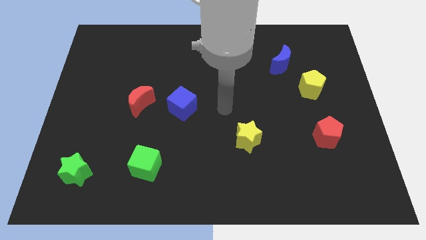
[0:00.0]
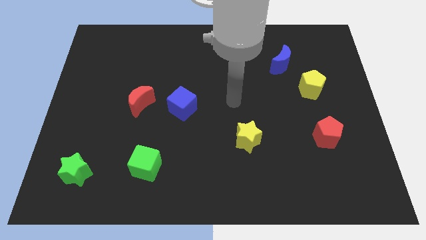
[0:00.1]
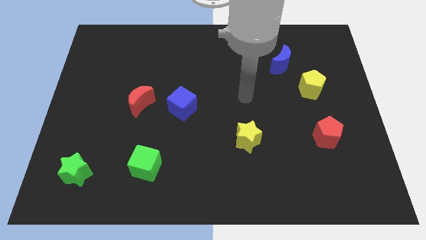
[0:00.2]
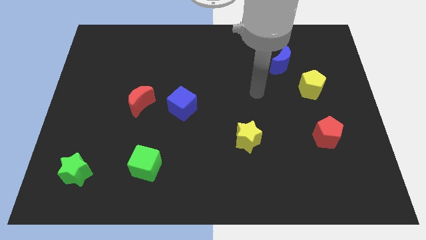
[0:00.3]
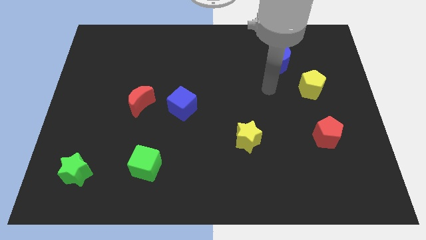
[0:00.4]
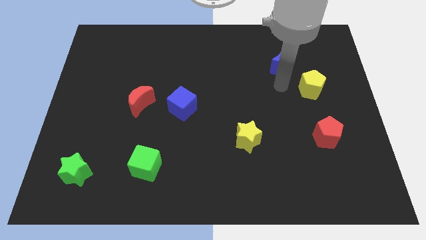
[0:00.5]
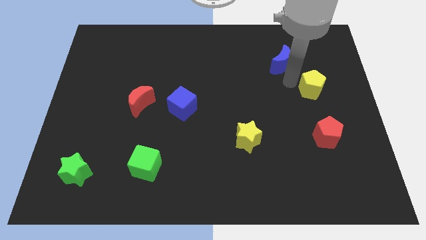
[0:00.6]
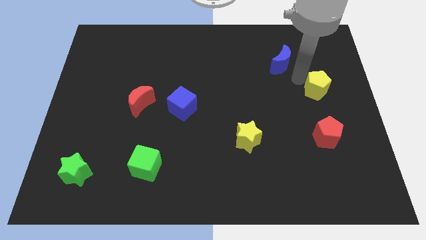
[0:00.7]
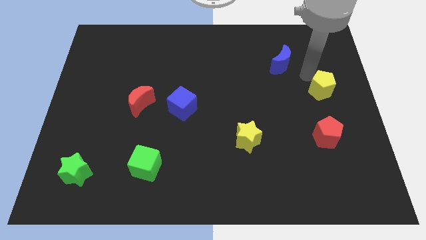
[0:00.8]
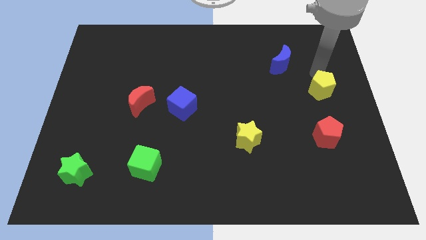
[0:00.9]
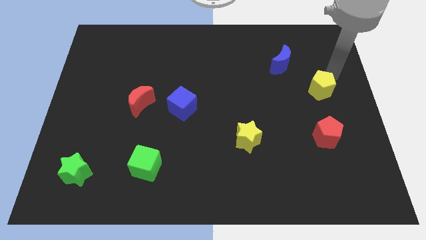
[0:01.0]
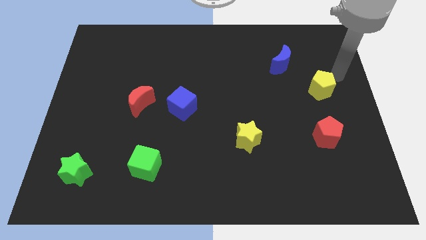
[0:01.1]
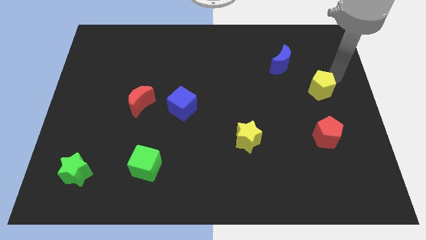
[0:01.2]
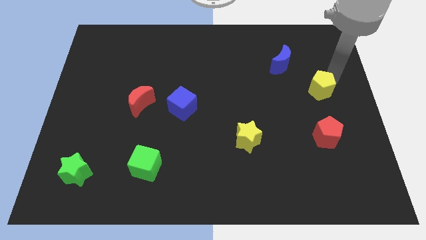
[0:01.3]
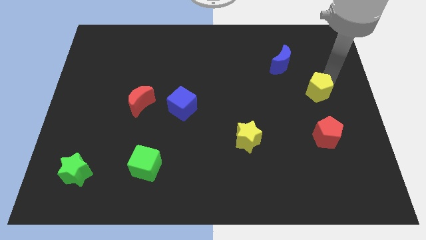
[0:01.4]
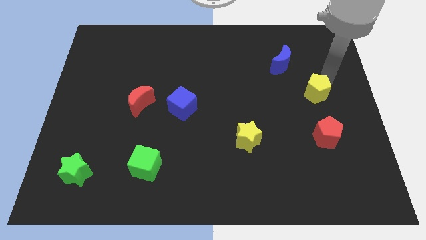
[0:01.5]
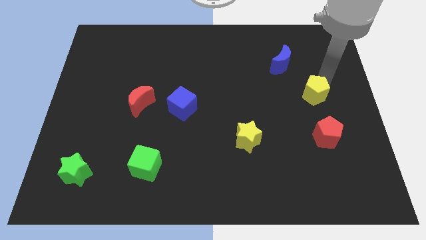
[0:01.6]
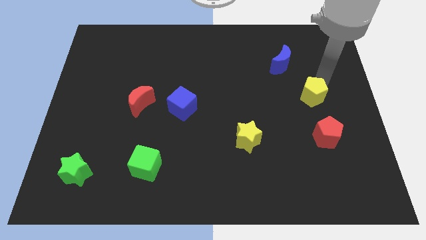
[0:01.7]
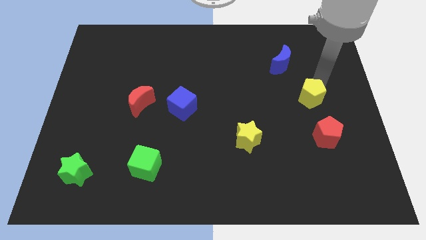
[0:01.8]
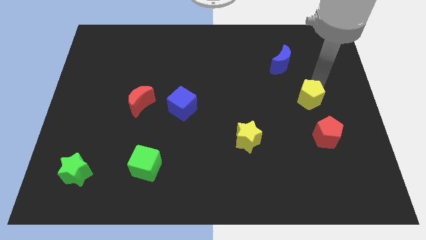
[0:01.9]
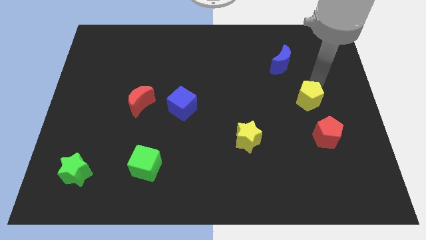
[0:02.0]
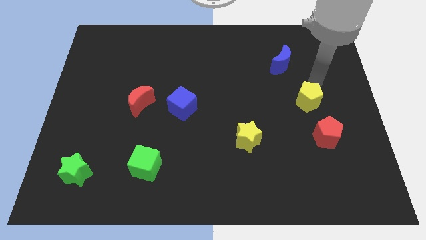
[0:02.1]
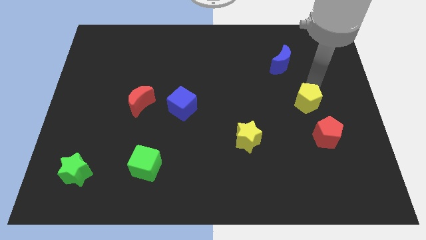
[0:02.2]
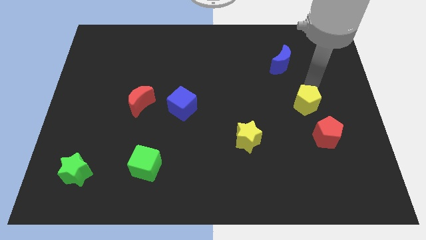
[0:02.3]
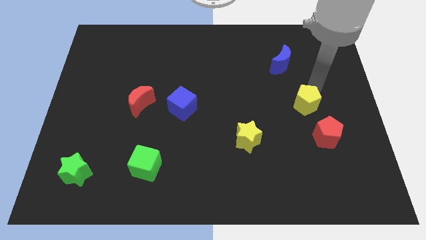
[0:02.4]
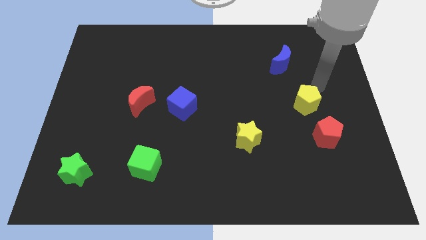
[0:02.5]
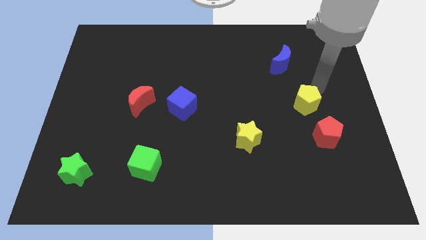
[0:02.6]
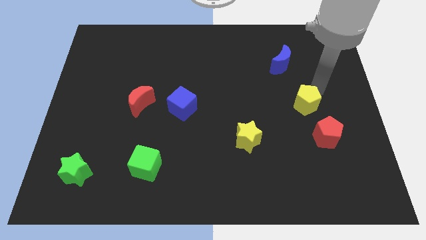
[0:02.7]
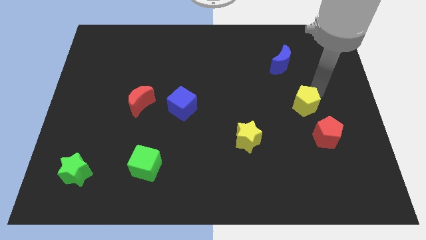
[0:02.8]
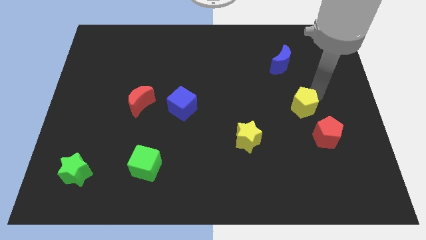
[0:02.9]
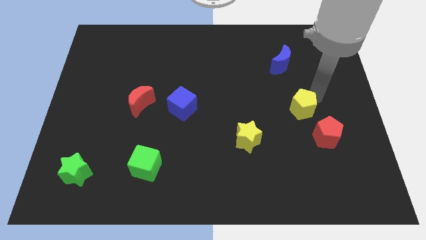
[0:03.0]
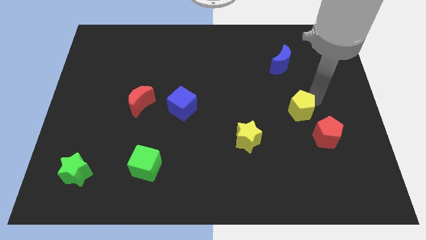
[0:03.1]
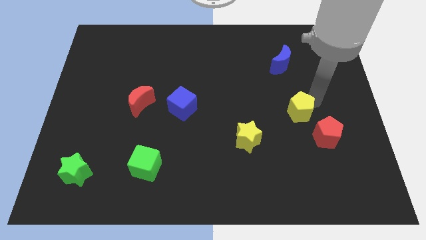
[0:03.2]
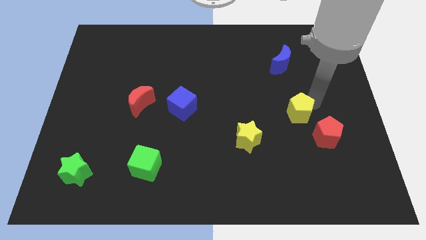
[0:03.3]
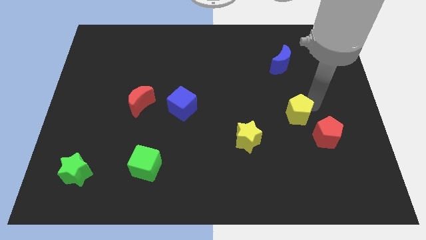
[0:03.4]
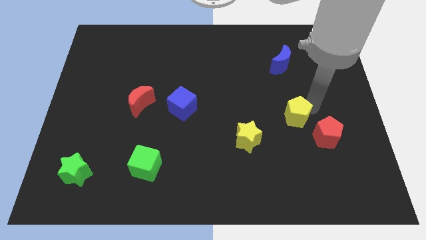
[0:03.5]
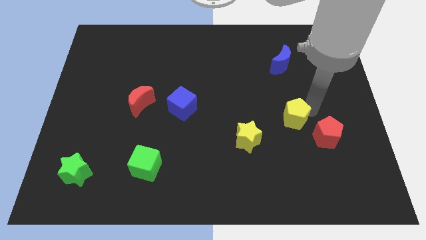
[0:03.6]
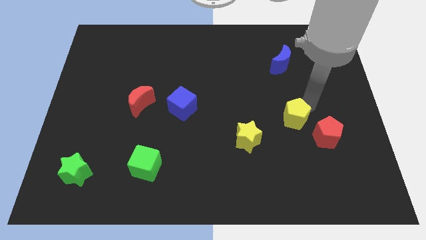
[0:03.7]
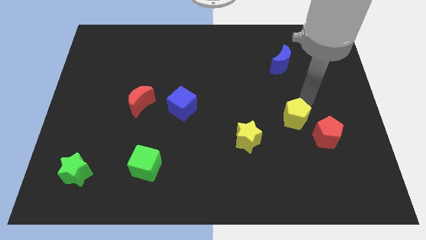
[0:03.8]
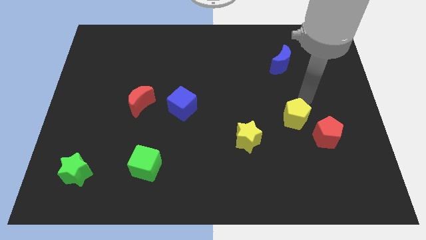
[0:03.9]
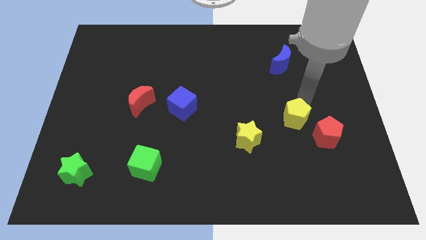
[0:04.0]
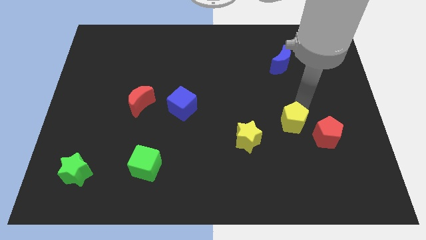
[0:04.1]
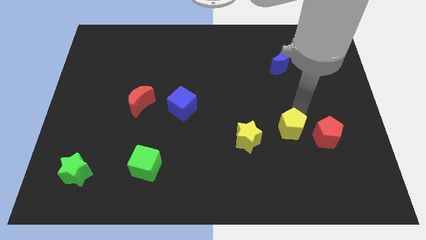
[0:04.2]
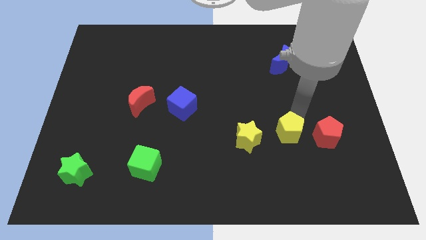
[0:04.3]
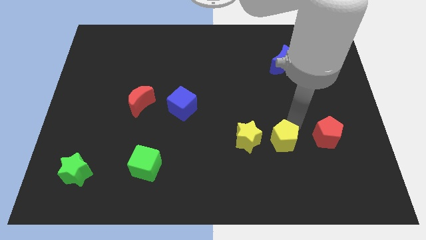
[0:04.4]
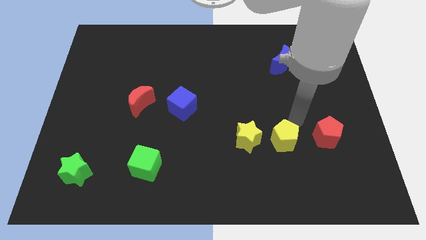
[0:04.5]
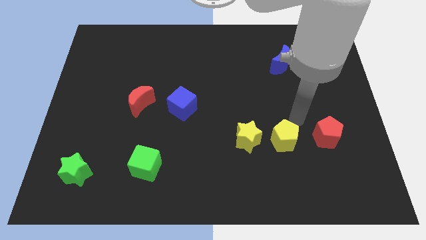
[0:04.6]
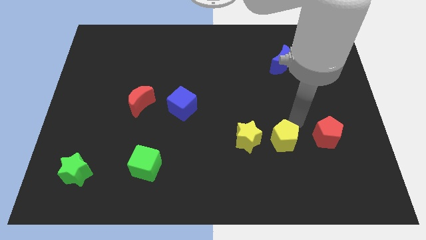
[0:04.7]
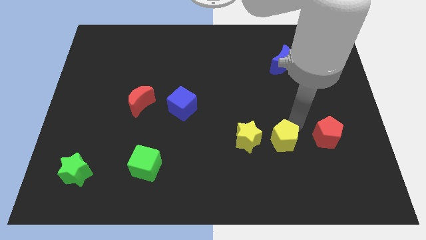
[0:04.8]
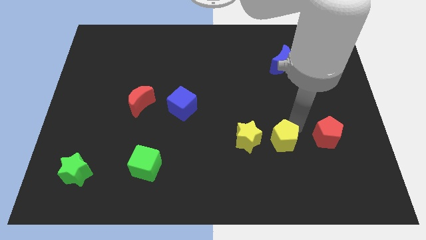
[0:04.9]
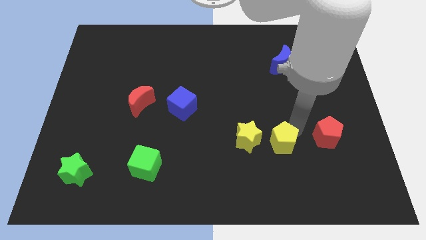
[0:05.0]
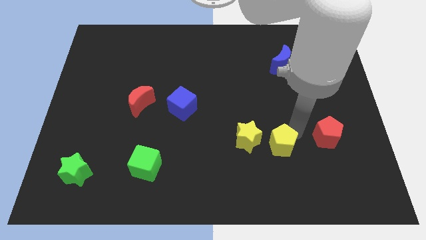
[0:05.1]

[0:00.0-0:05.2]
slide the yellow pentagon to the bottom right of the yellow star

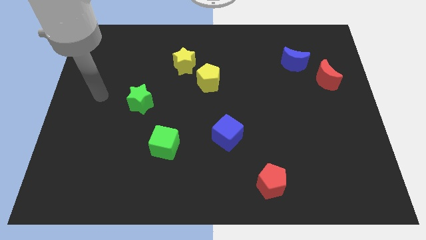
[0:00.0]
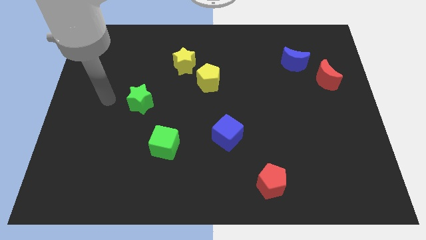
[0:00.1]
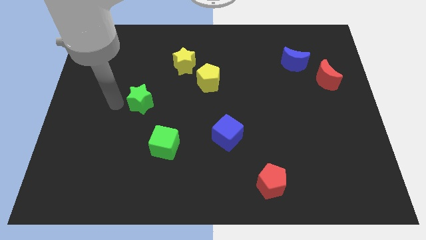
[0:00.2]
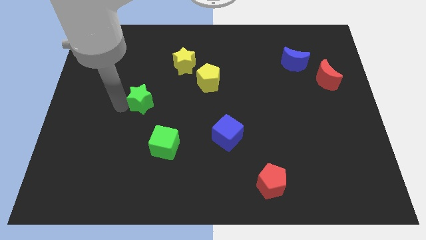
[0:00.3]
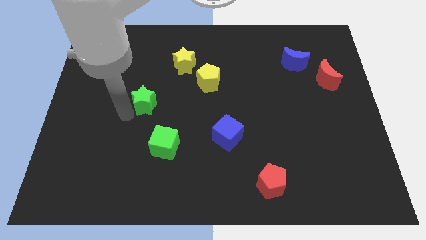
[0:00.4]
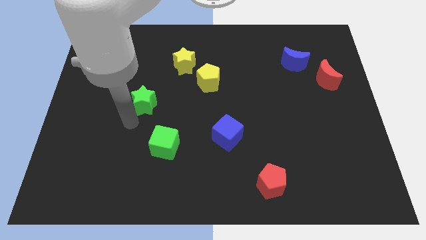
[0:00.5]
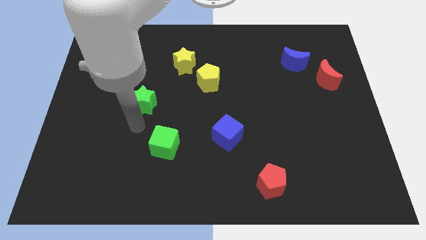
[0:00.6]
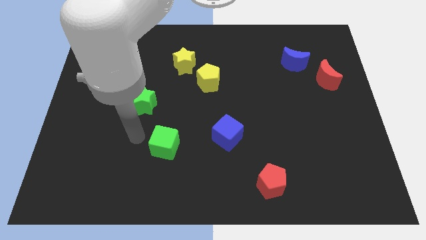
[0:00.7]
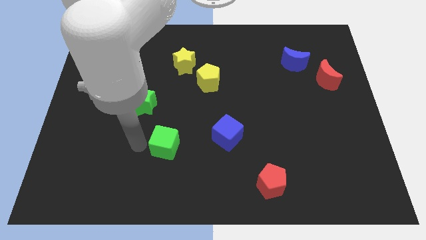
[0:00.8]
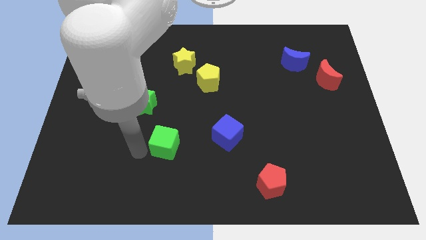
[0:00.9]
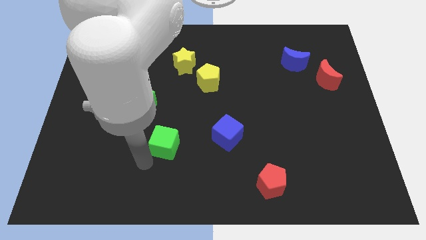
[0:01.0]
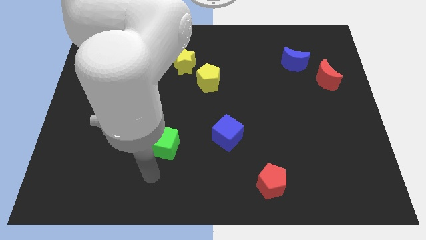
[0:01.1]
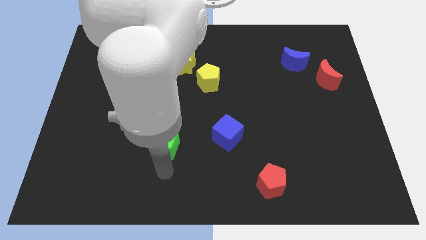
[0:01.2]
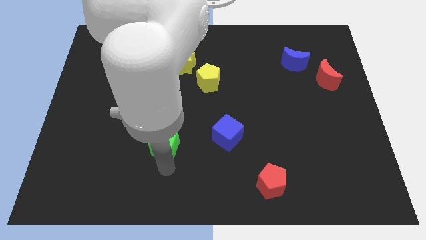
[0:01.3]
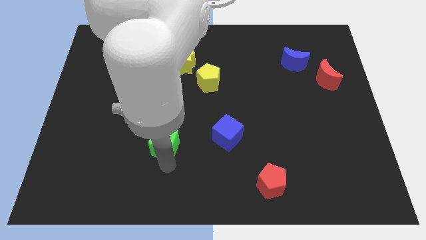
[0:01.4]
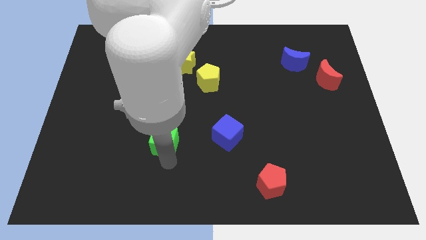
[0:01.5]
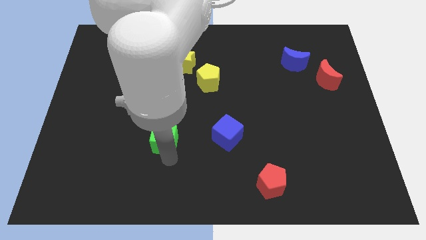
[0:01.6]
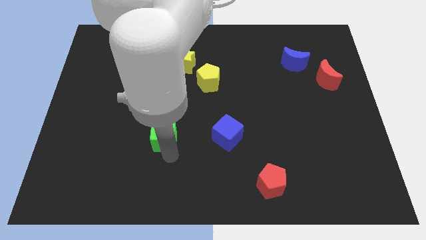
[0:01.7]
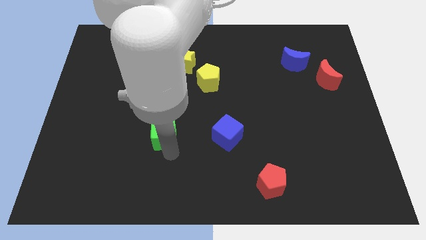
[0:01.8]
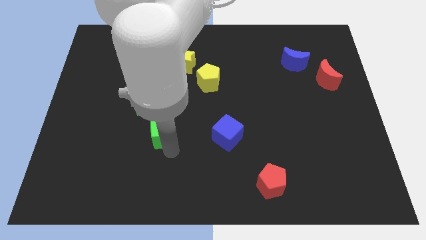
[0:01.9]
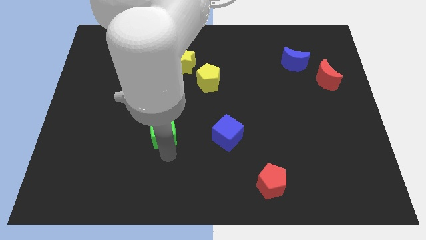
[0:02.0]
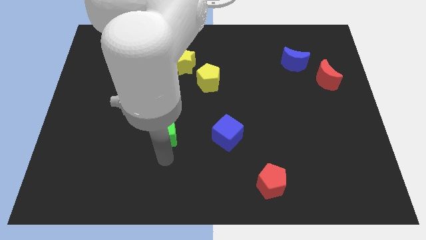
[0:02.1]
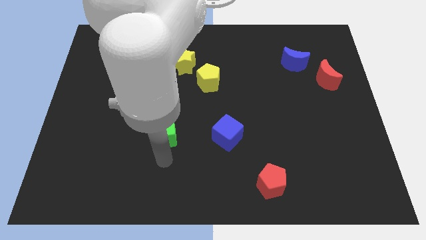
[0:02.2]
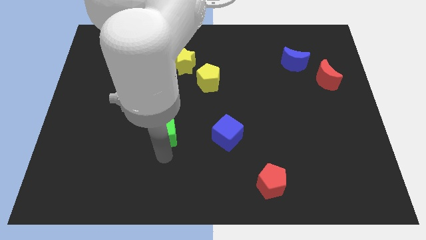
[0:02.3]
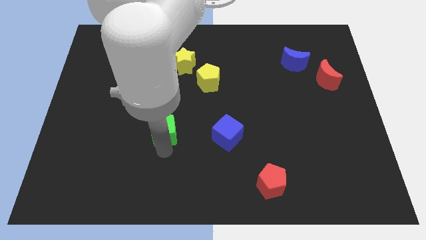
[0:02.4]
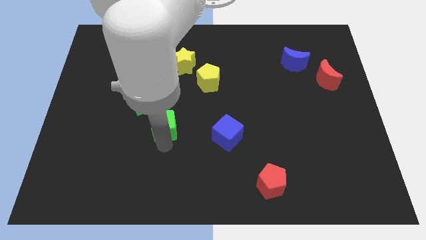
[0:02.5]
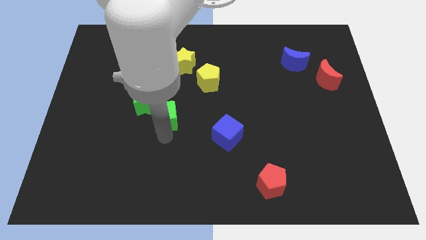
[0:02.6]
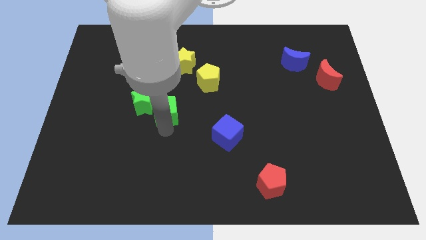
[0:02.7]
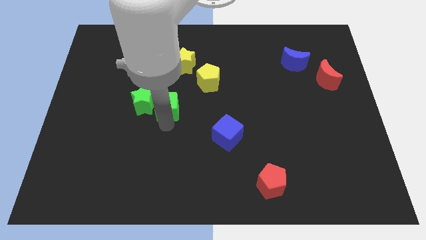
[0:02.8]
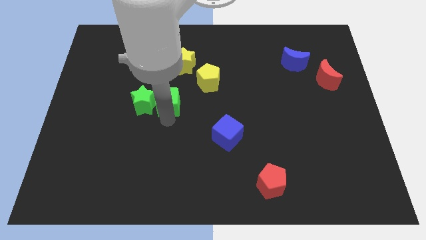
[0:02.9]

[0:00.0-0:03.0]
move the green cube to the top right of the green star
